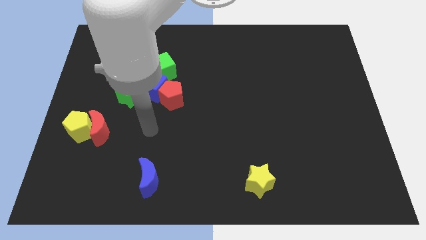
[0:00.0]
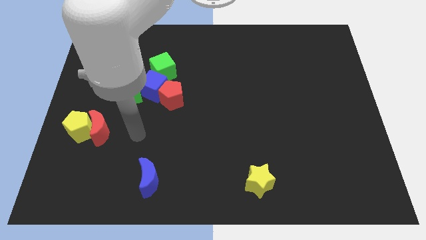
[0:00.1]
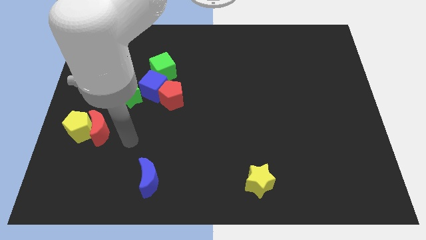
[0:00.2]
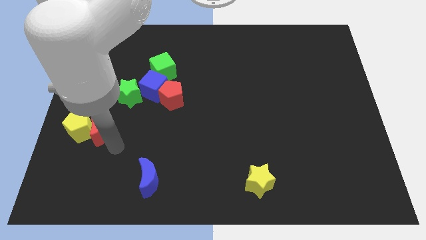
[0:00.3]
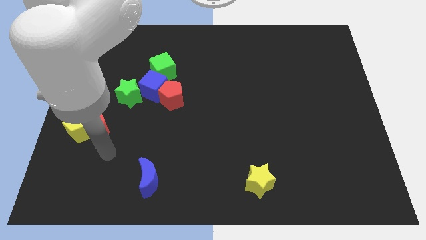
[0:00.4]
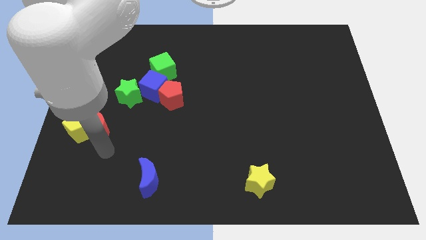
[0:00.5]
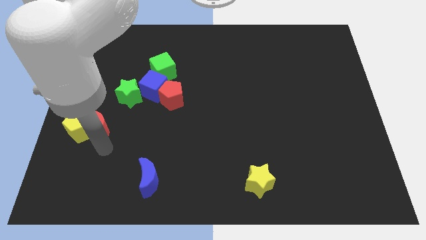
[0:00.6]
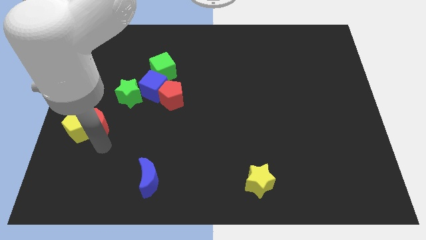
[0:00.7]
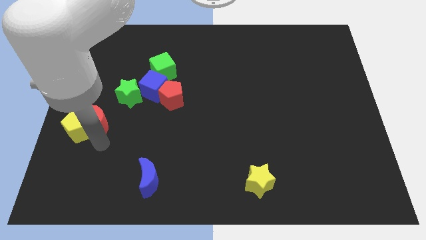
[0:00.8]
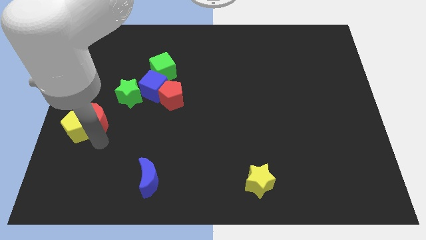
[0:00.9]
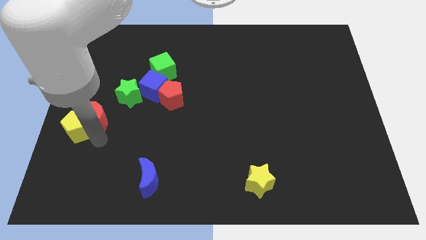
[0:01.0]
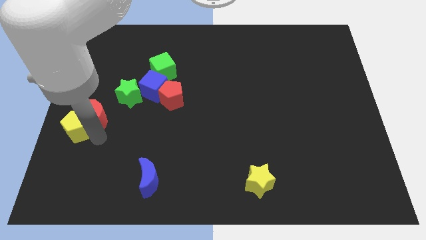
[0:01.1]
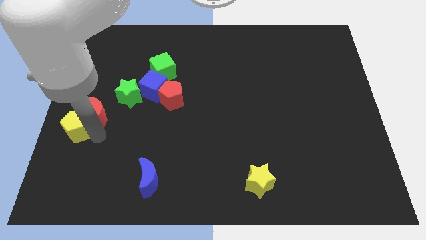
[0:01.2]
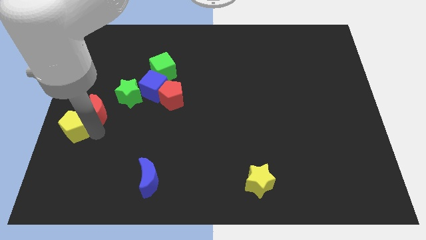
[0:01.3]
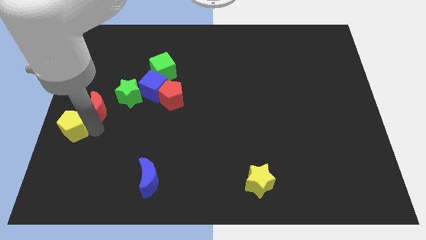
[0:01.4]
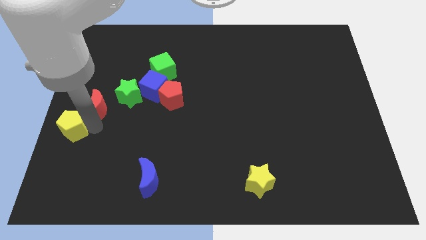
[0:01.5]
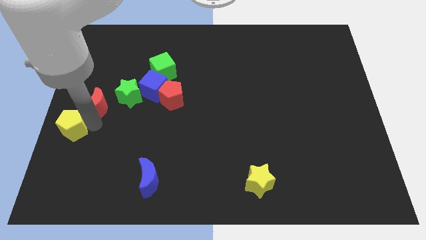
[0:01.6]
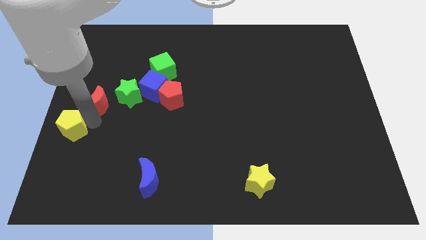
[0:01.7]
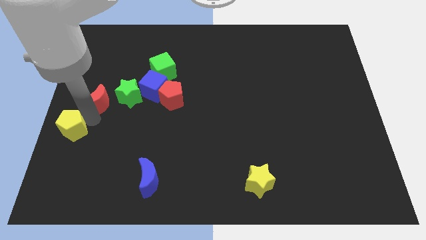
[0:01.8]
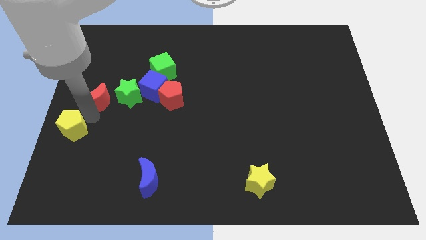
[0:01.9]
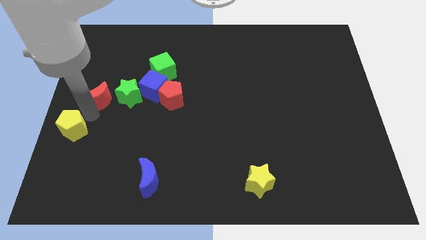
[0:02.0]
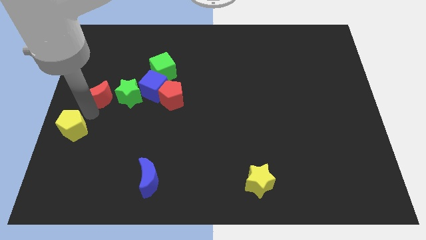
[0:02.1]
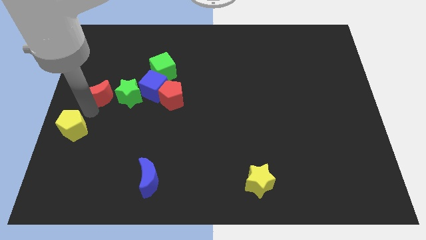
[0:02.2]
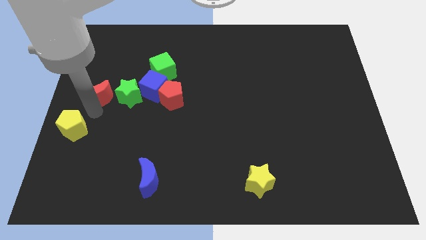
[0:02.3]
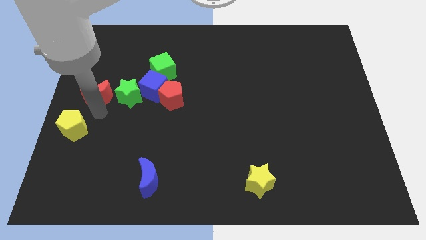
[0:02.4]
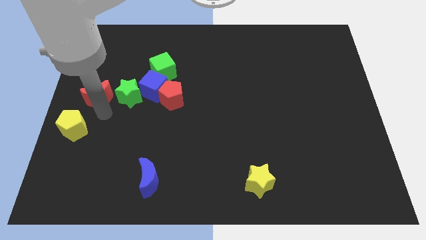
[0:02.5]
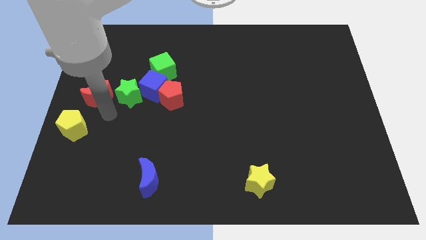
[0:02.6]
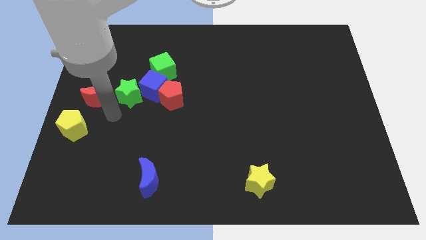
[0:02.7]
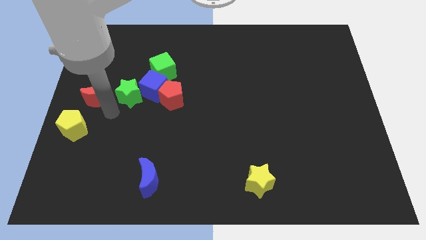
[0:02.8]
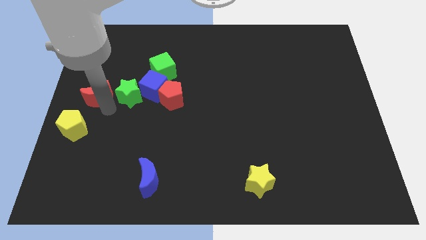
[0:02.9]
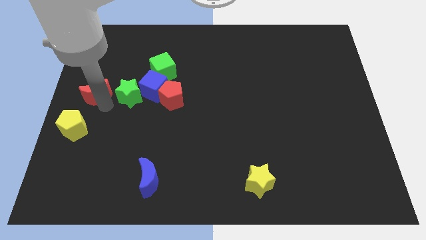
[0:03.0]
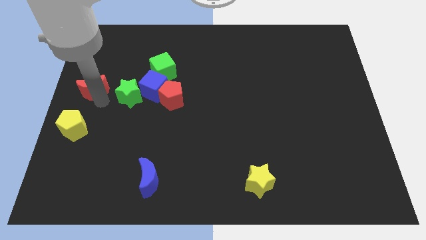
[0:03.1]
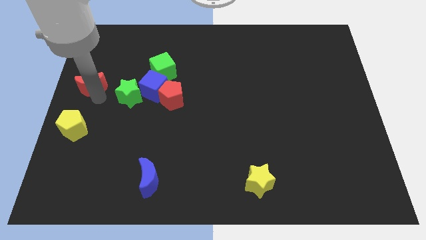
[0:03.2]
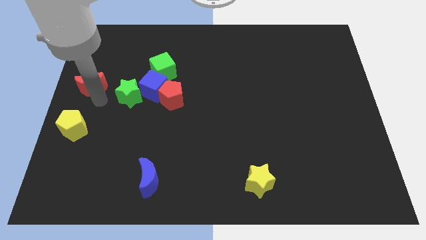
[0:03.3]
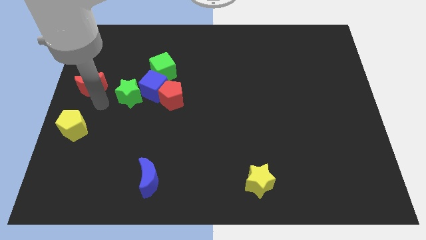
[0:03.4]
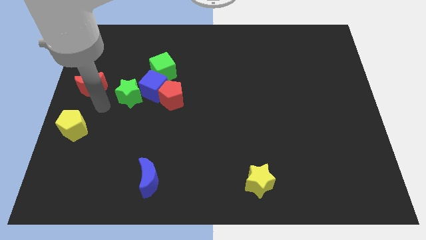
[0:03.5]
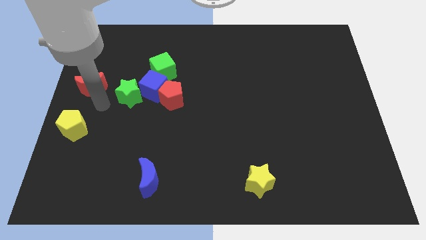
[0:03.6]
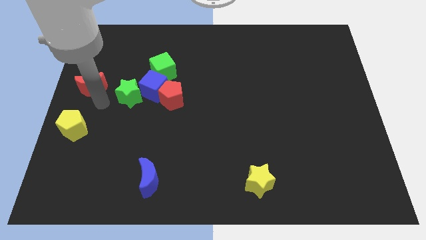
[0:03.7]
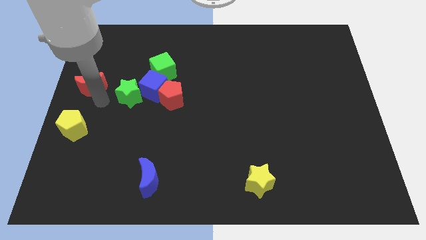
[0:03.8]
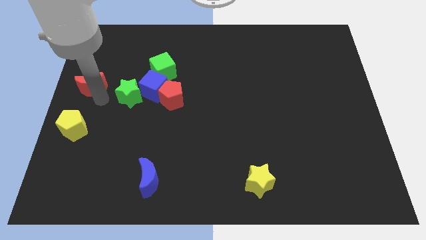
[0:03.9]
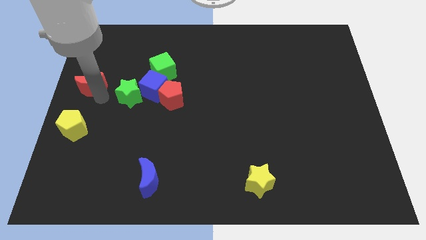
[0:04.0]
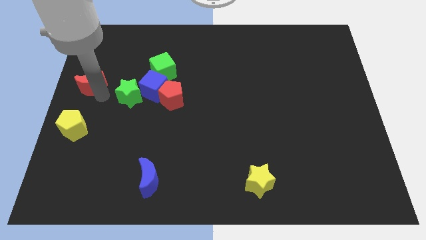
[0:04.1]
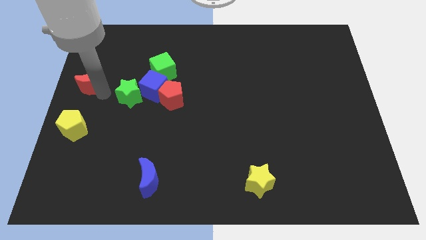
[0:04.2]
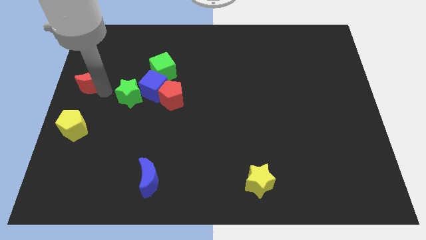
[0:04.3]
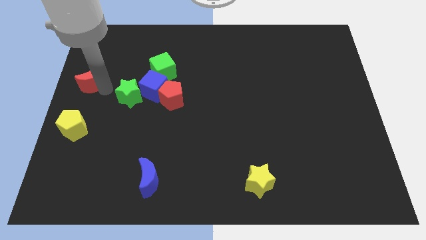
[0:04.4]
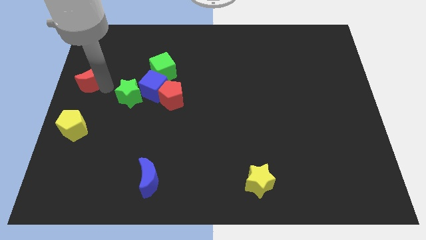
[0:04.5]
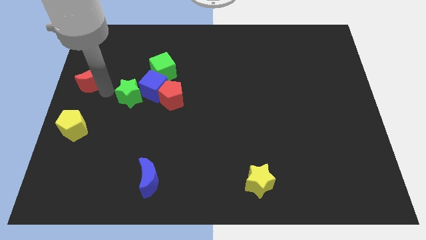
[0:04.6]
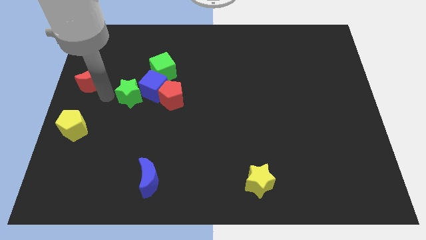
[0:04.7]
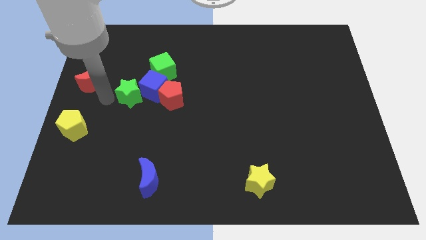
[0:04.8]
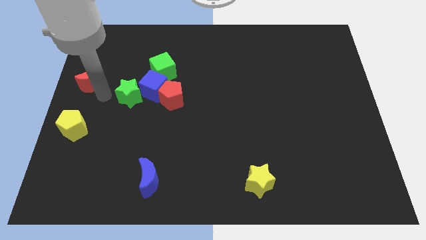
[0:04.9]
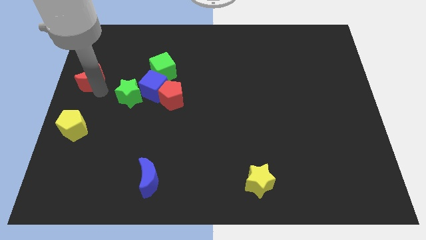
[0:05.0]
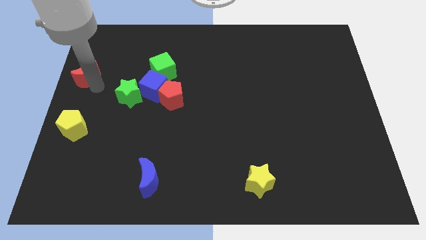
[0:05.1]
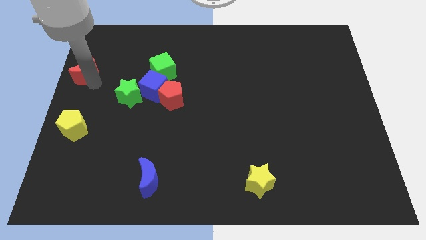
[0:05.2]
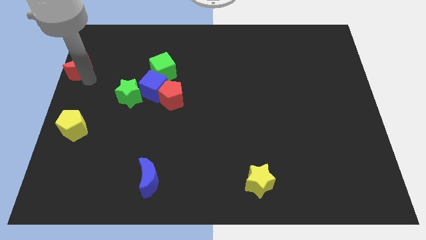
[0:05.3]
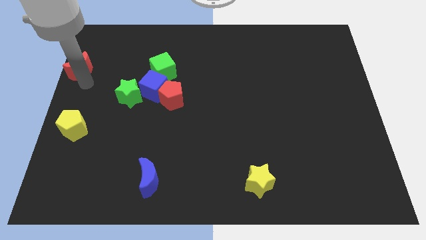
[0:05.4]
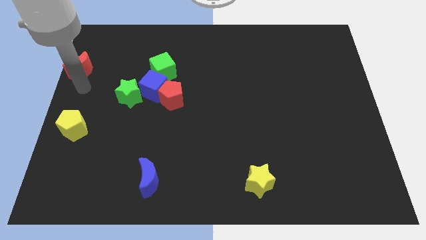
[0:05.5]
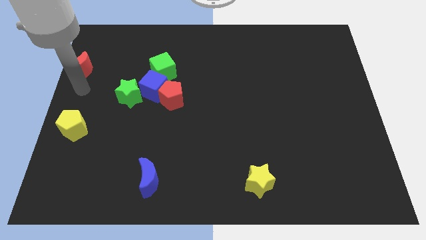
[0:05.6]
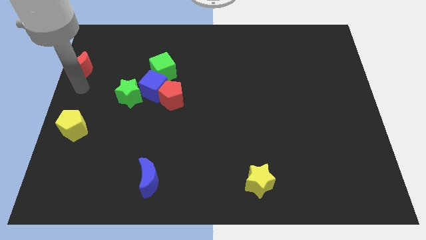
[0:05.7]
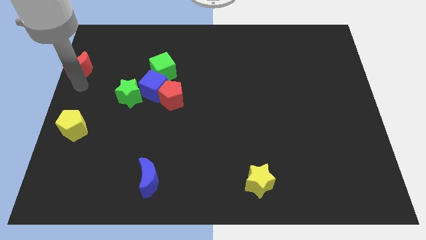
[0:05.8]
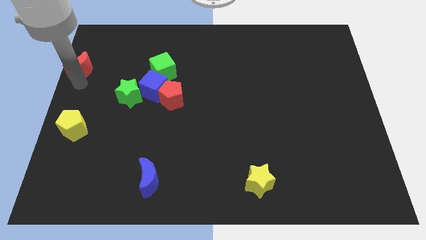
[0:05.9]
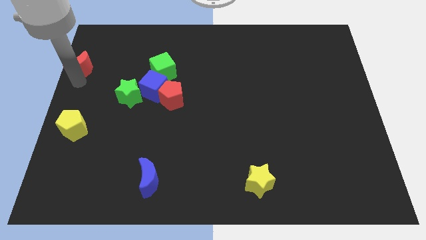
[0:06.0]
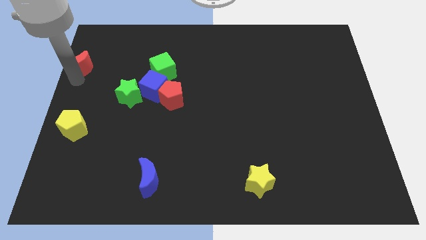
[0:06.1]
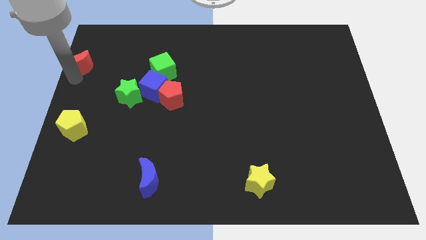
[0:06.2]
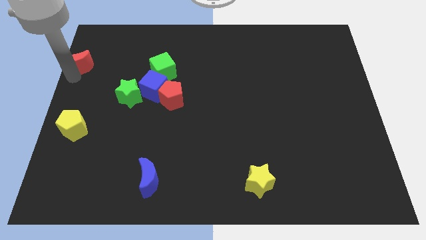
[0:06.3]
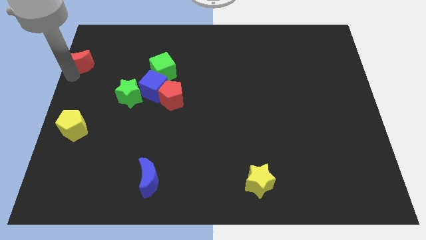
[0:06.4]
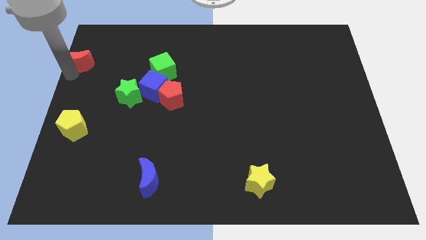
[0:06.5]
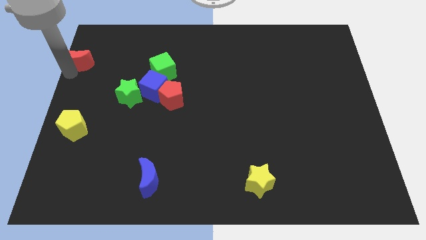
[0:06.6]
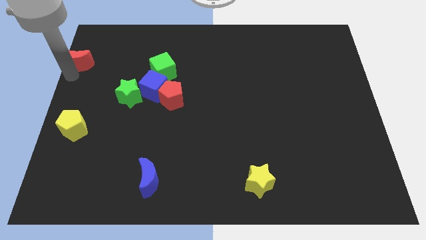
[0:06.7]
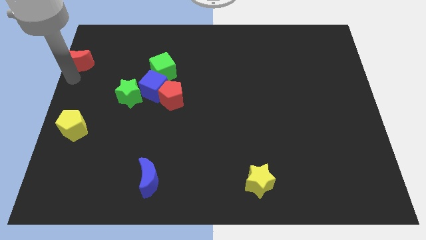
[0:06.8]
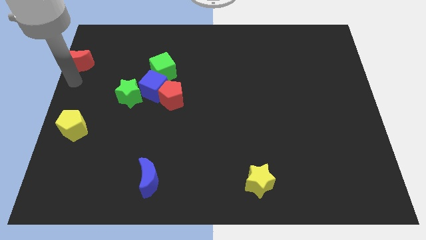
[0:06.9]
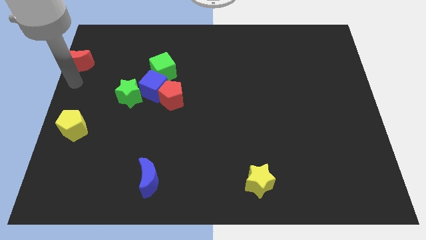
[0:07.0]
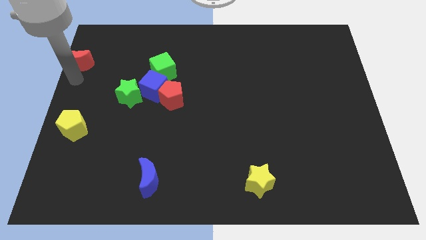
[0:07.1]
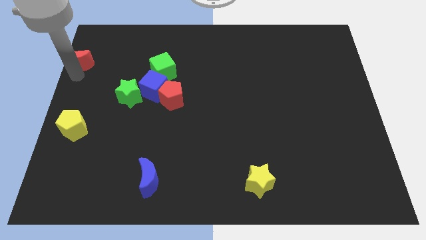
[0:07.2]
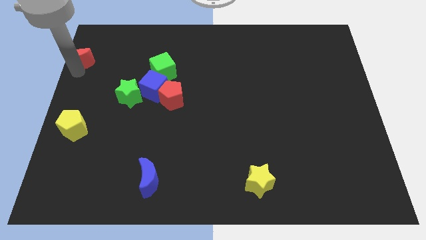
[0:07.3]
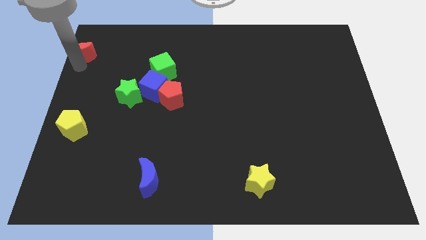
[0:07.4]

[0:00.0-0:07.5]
slide the red moon to the top left corner
